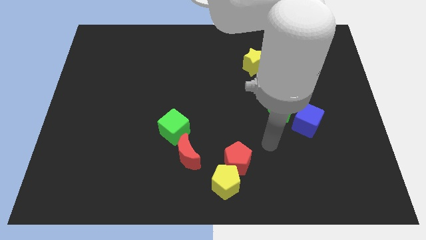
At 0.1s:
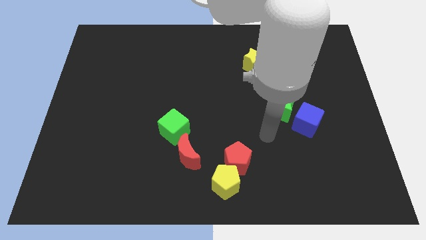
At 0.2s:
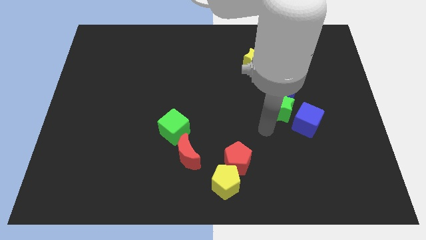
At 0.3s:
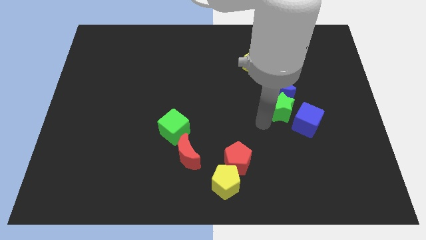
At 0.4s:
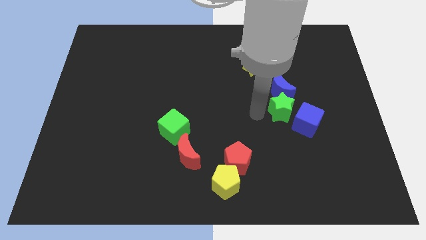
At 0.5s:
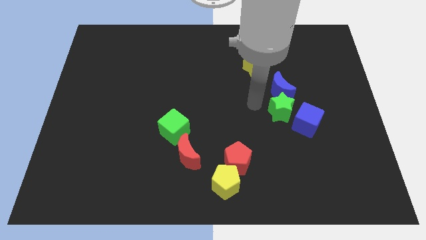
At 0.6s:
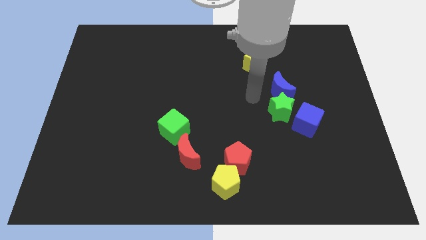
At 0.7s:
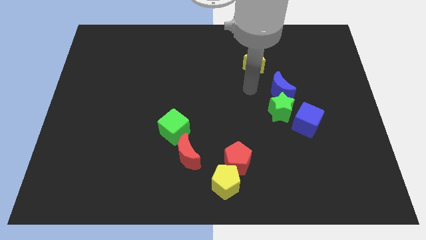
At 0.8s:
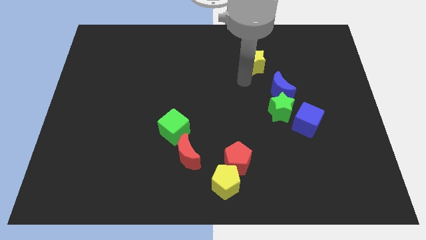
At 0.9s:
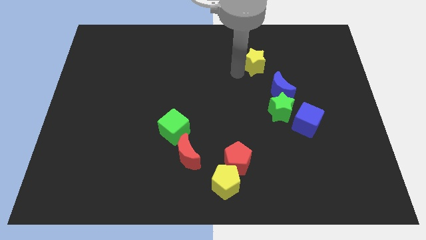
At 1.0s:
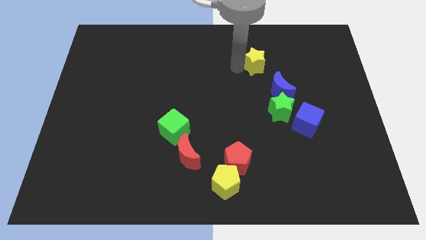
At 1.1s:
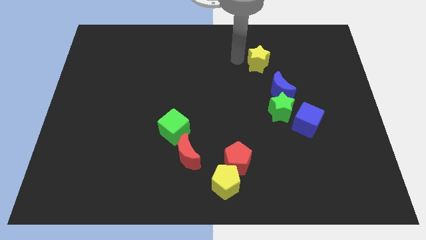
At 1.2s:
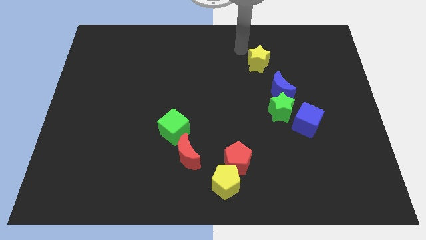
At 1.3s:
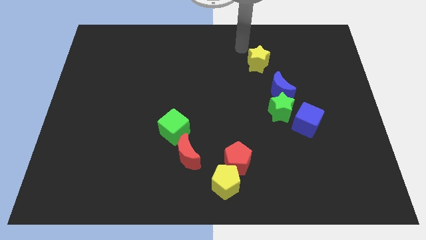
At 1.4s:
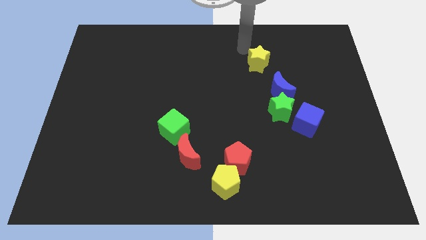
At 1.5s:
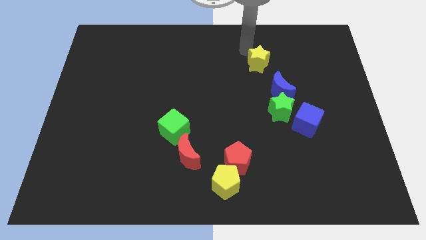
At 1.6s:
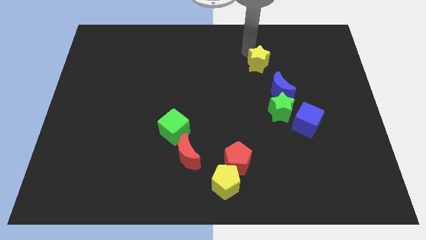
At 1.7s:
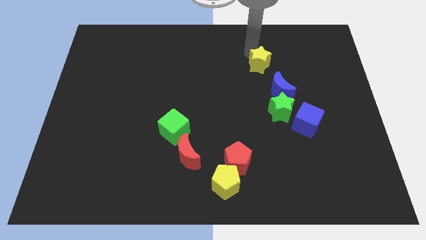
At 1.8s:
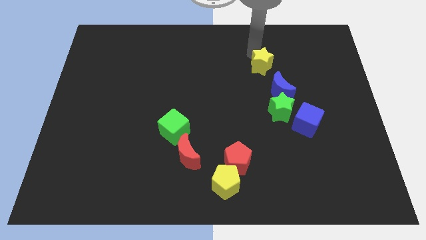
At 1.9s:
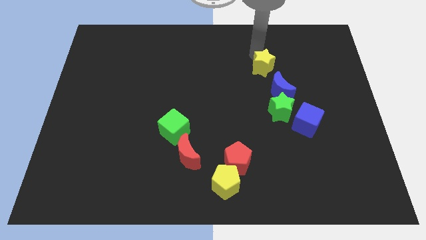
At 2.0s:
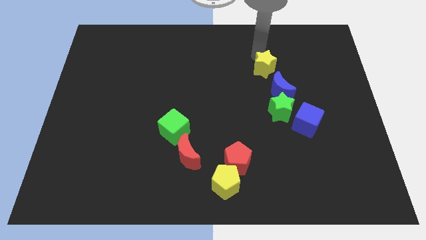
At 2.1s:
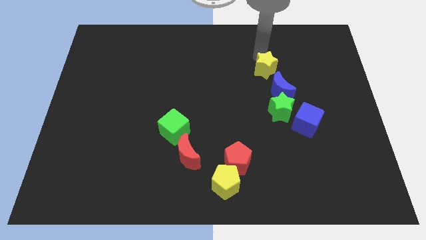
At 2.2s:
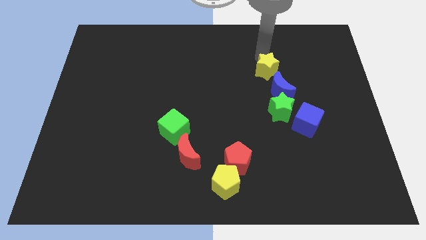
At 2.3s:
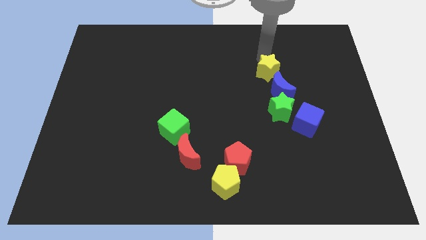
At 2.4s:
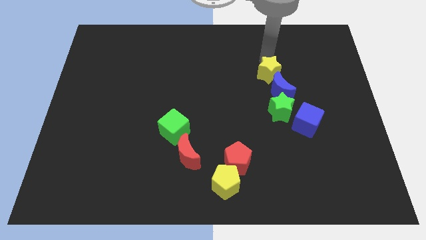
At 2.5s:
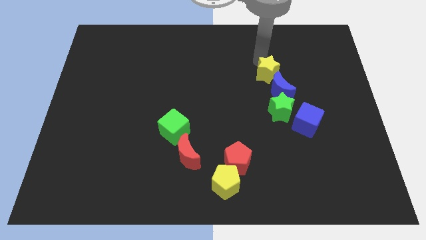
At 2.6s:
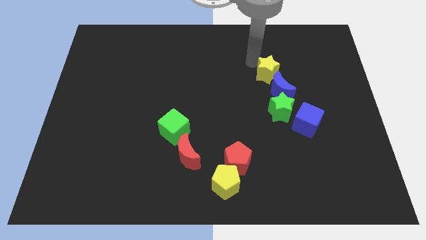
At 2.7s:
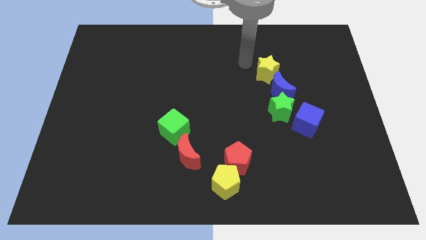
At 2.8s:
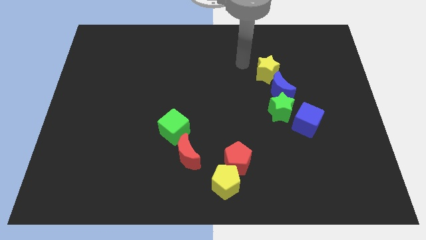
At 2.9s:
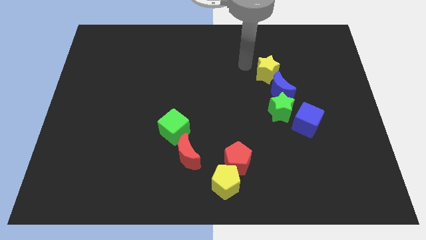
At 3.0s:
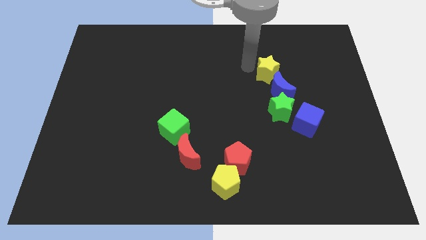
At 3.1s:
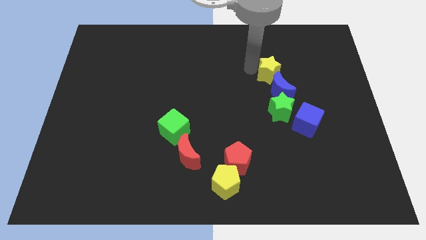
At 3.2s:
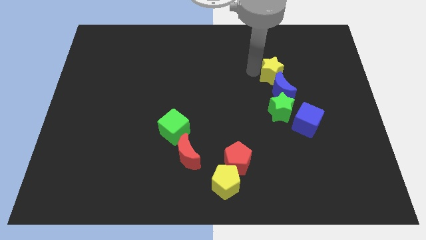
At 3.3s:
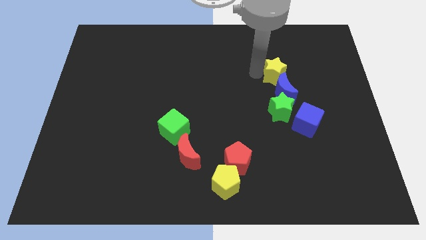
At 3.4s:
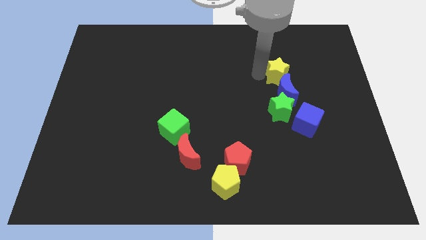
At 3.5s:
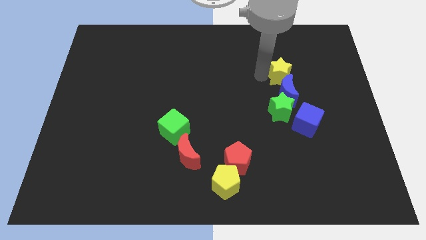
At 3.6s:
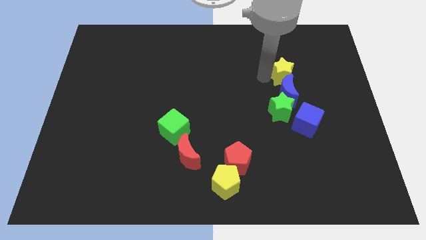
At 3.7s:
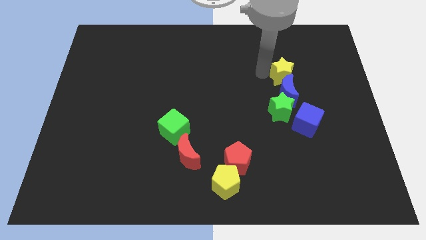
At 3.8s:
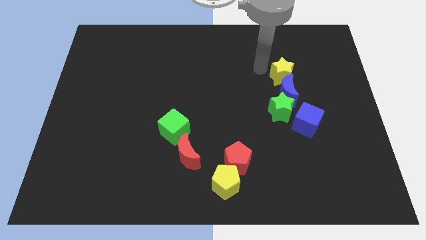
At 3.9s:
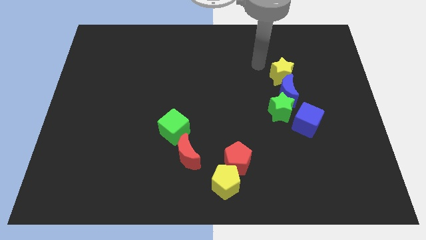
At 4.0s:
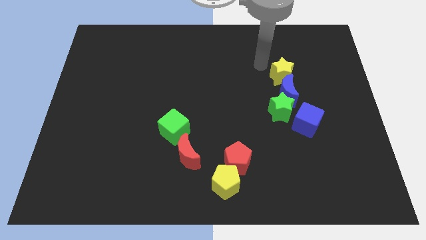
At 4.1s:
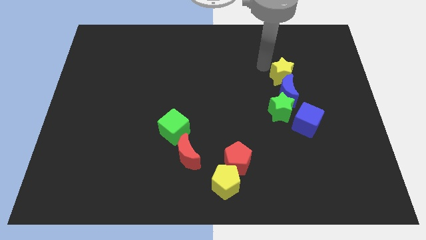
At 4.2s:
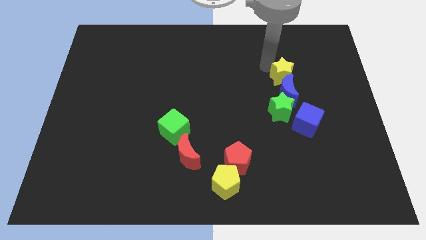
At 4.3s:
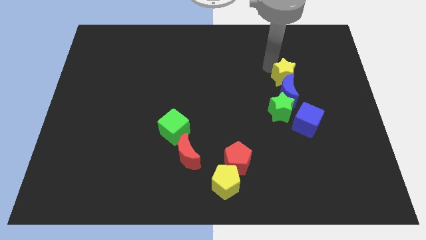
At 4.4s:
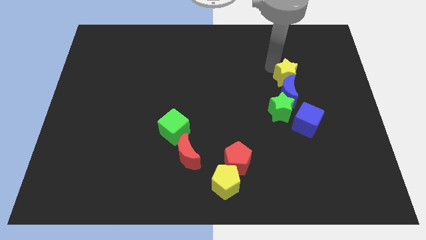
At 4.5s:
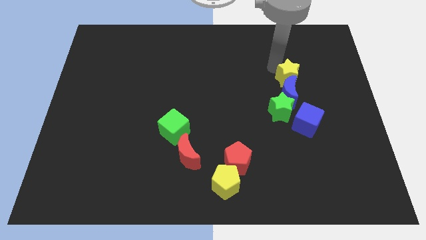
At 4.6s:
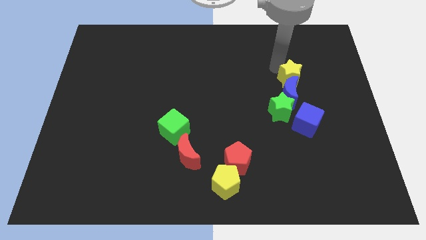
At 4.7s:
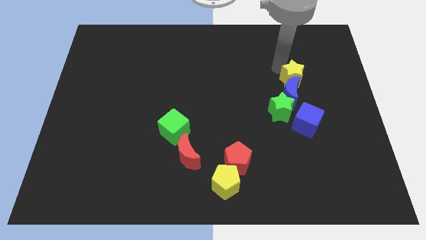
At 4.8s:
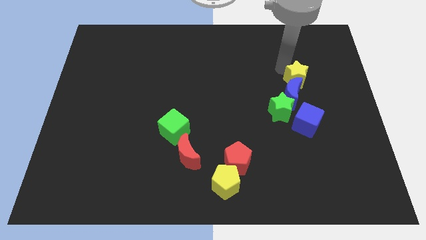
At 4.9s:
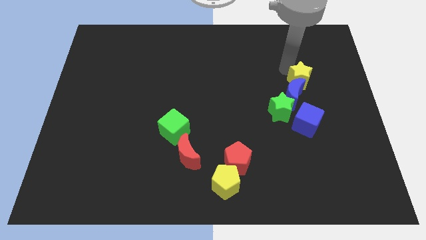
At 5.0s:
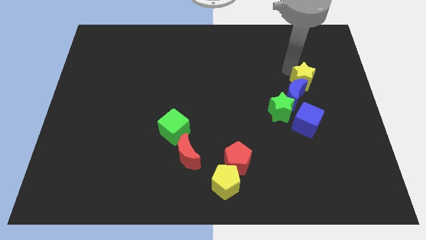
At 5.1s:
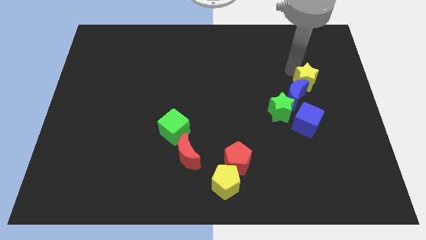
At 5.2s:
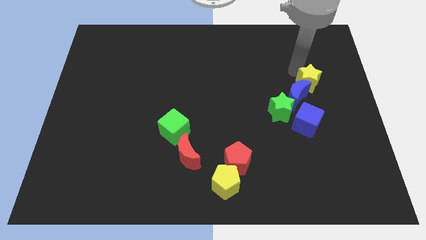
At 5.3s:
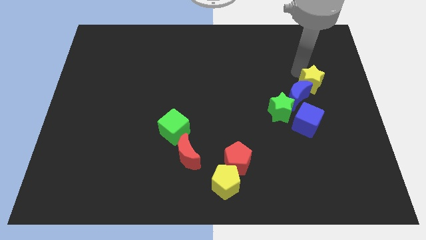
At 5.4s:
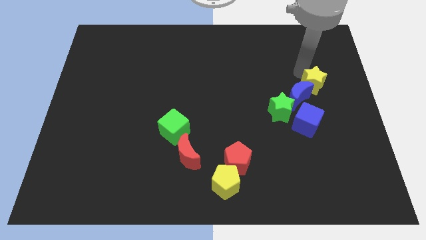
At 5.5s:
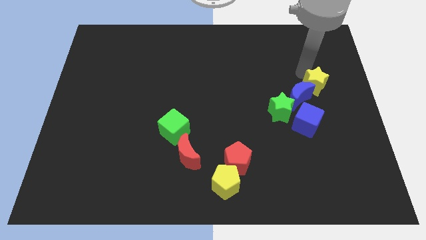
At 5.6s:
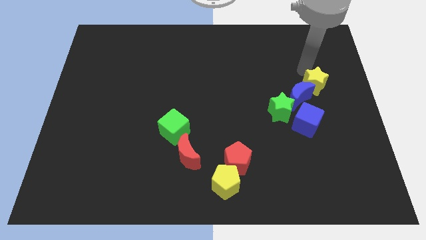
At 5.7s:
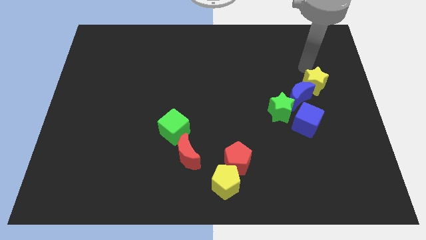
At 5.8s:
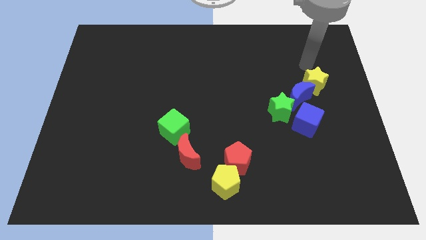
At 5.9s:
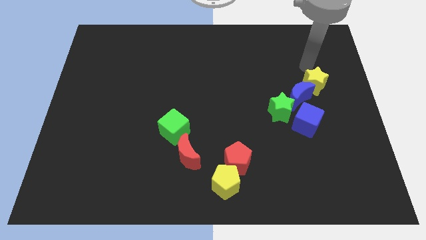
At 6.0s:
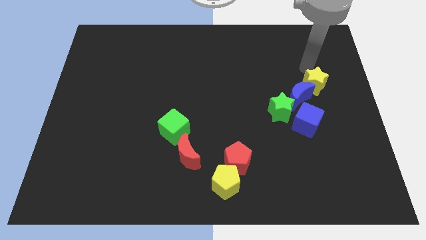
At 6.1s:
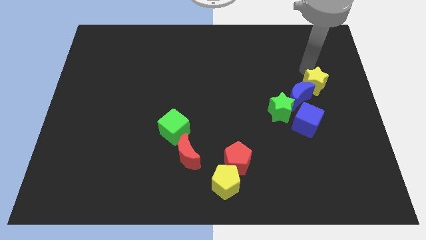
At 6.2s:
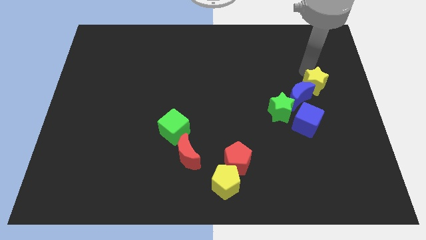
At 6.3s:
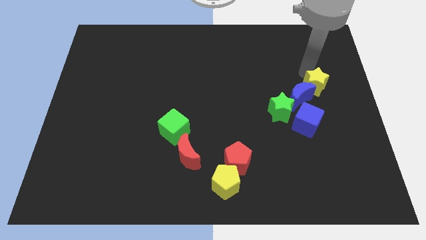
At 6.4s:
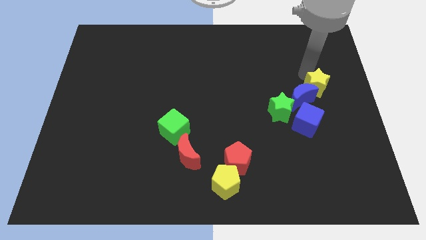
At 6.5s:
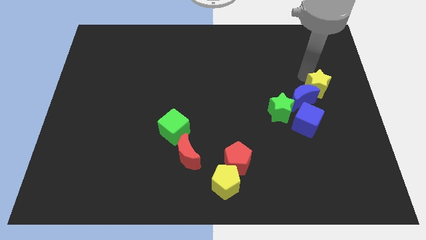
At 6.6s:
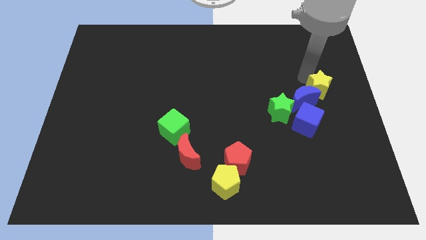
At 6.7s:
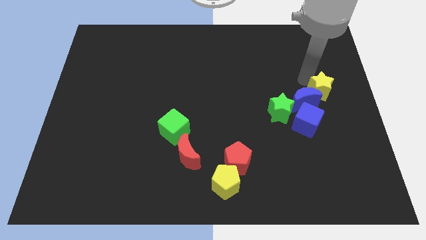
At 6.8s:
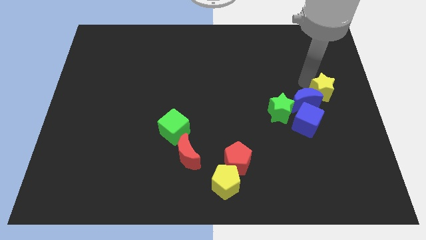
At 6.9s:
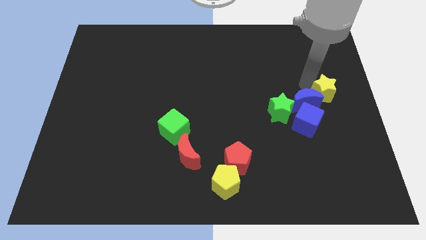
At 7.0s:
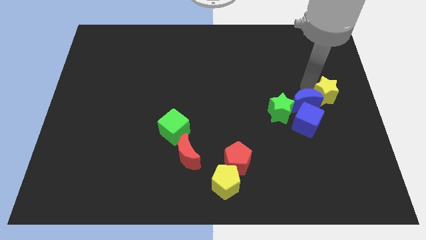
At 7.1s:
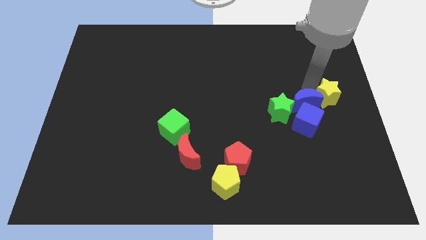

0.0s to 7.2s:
move the yellow star to the right side of the green star
